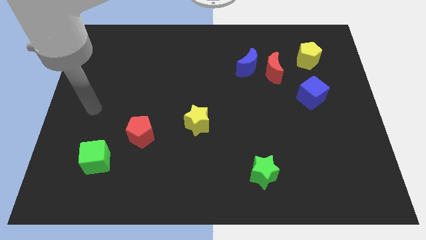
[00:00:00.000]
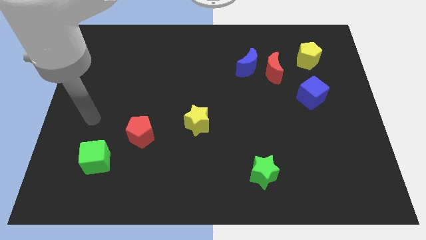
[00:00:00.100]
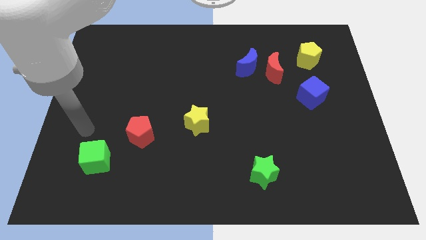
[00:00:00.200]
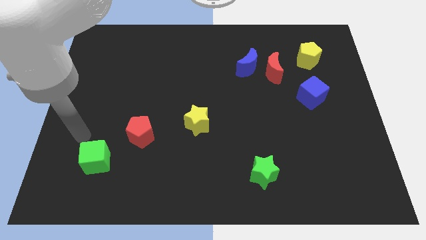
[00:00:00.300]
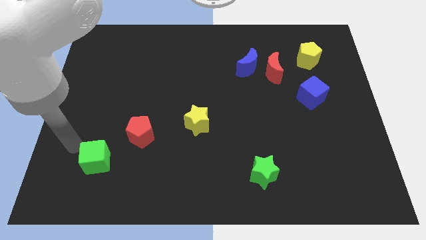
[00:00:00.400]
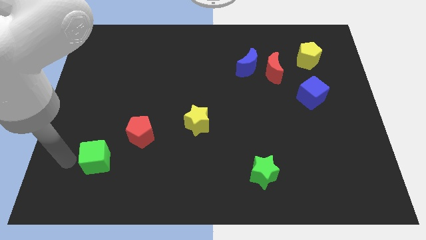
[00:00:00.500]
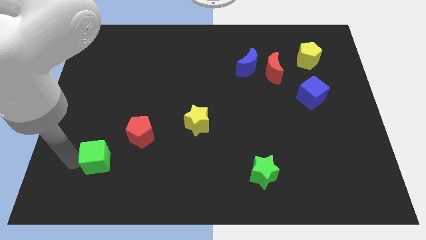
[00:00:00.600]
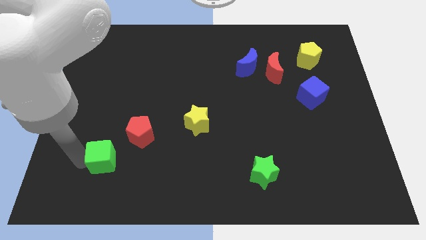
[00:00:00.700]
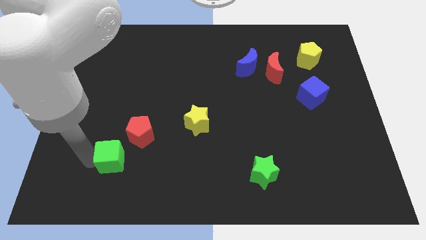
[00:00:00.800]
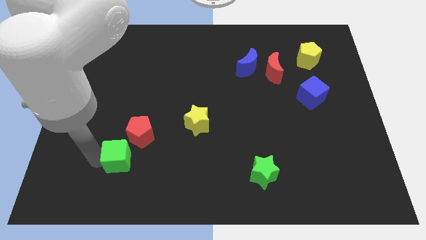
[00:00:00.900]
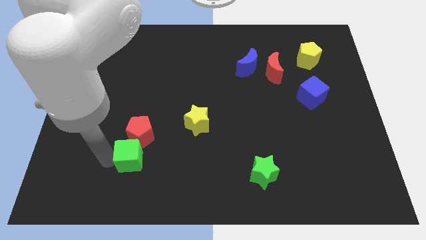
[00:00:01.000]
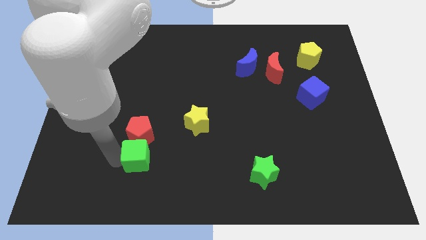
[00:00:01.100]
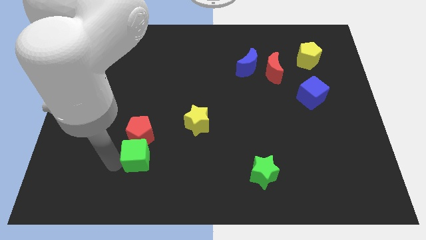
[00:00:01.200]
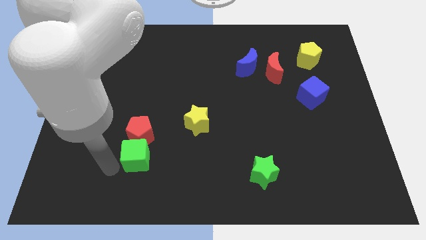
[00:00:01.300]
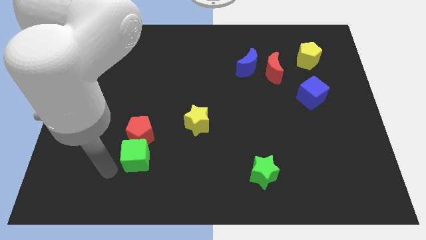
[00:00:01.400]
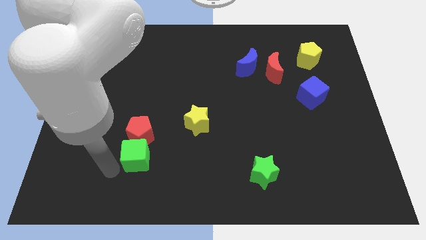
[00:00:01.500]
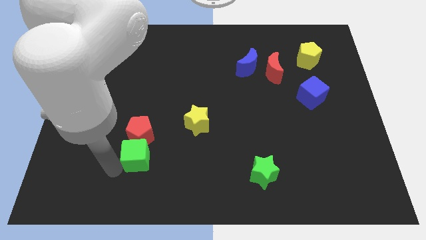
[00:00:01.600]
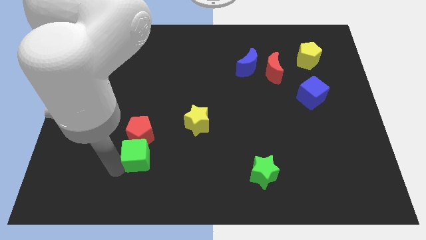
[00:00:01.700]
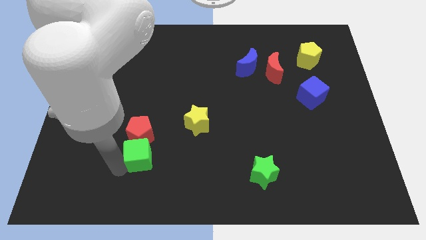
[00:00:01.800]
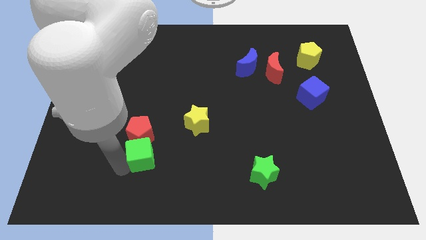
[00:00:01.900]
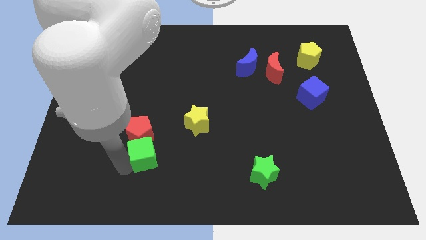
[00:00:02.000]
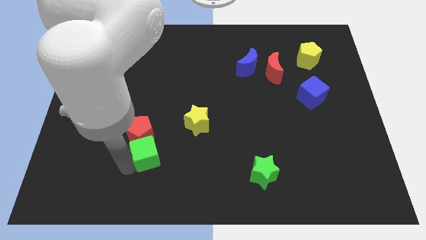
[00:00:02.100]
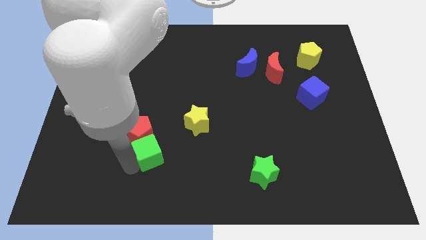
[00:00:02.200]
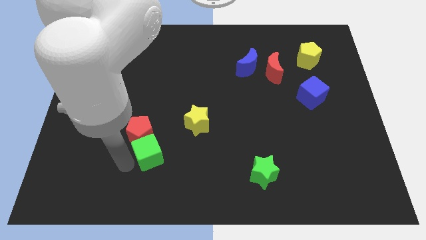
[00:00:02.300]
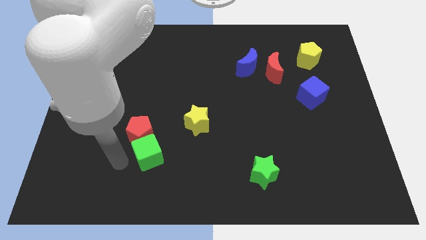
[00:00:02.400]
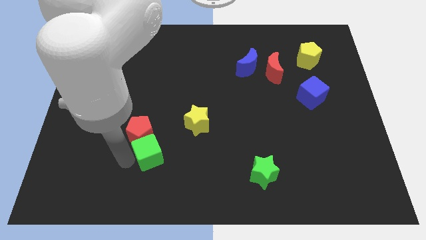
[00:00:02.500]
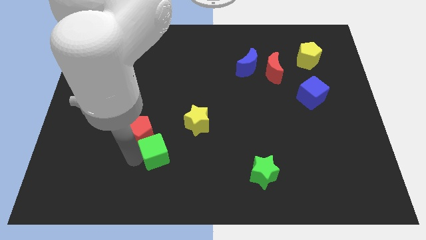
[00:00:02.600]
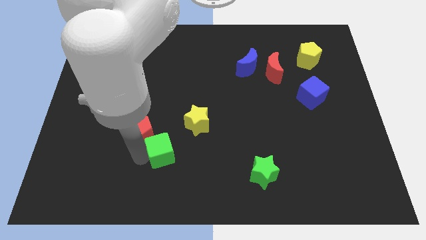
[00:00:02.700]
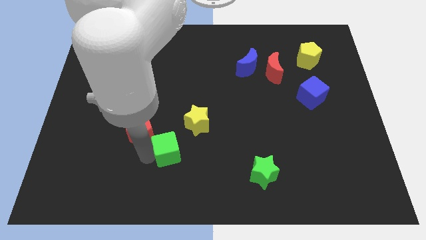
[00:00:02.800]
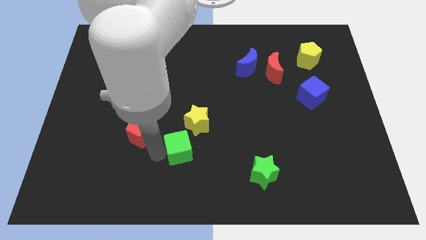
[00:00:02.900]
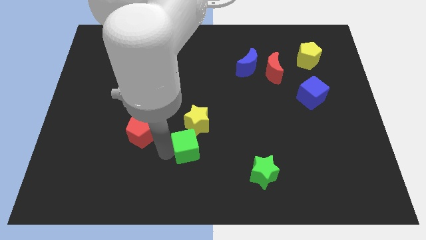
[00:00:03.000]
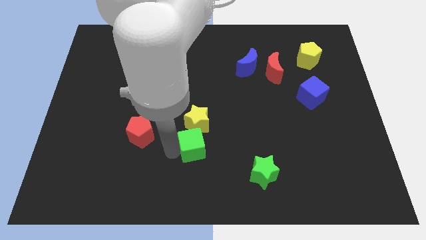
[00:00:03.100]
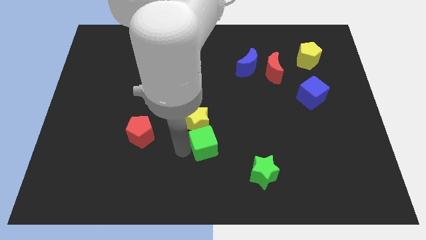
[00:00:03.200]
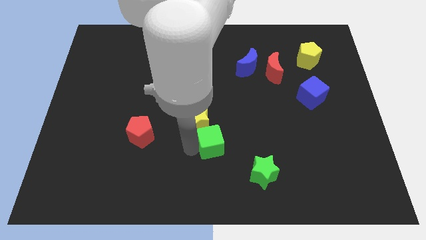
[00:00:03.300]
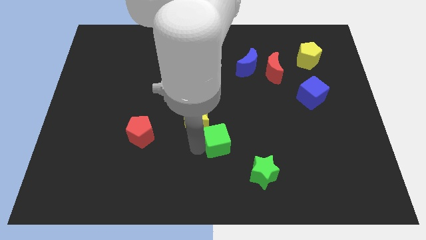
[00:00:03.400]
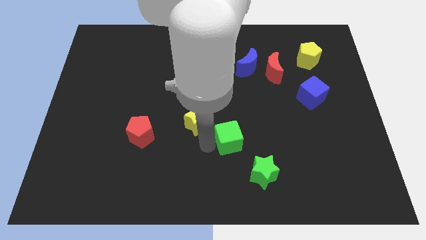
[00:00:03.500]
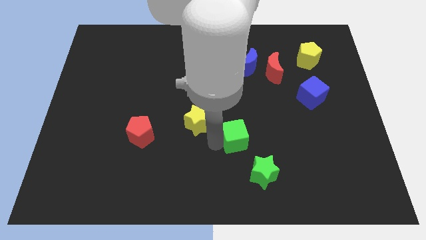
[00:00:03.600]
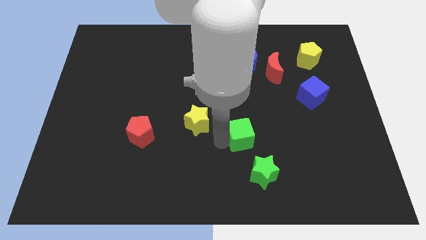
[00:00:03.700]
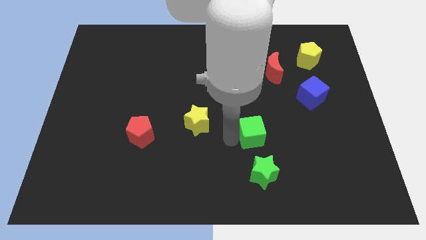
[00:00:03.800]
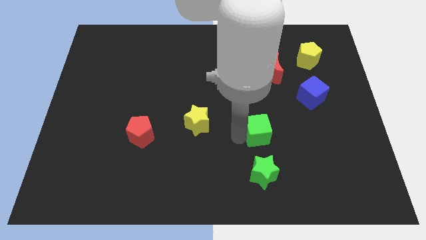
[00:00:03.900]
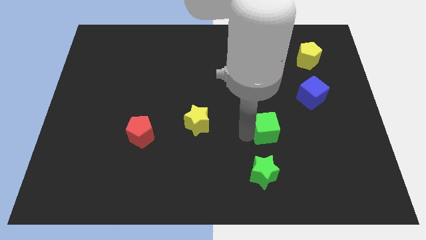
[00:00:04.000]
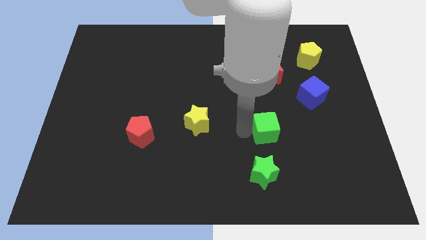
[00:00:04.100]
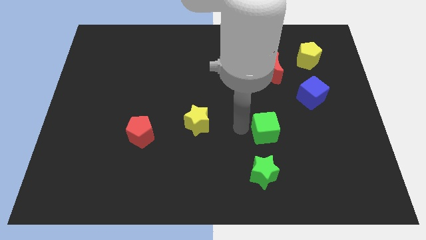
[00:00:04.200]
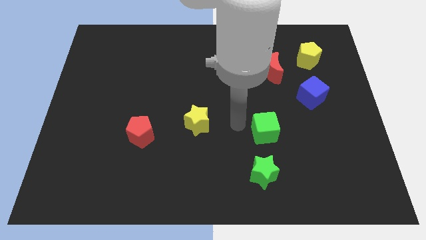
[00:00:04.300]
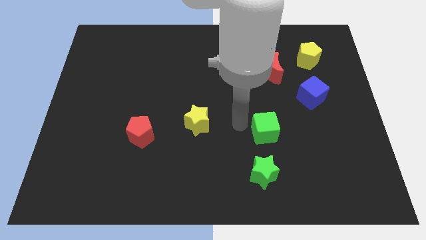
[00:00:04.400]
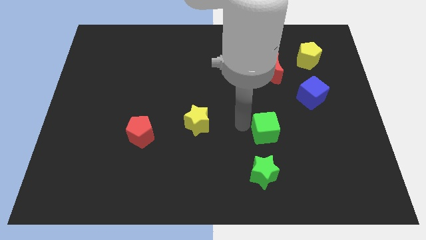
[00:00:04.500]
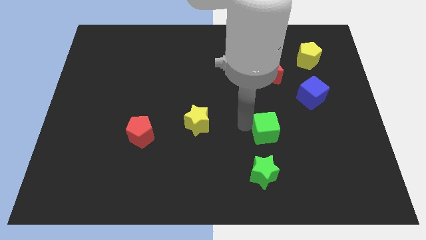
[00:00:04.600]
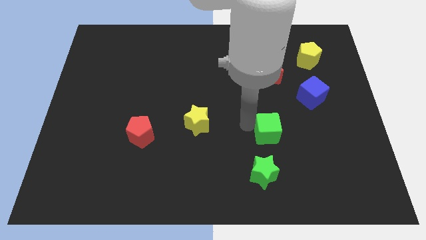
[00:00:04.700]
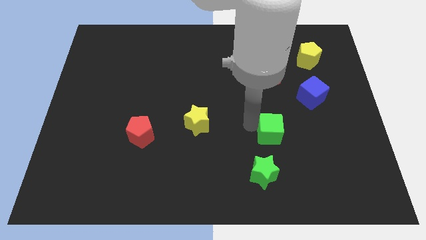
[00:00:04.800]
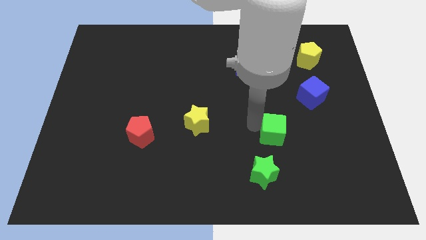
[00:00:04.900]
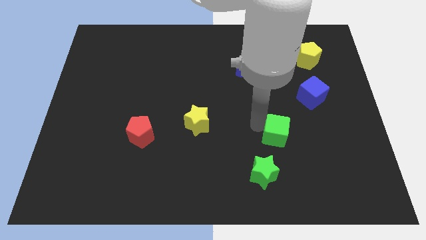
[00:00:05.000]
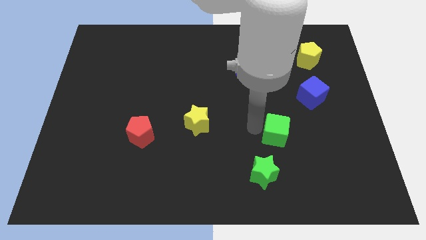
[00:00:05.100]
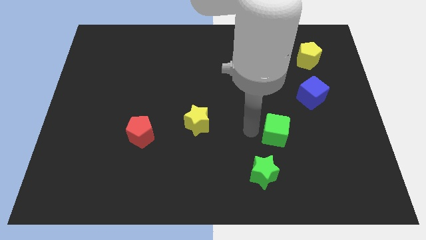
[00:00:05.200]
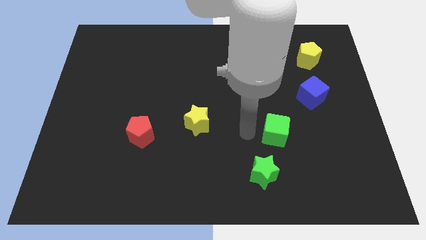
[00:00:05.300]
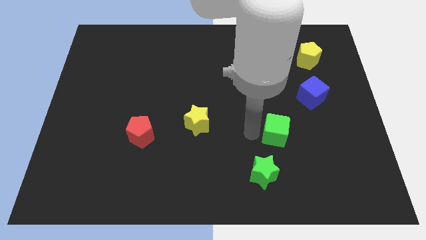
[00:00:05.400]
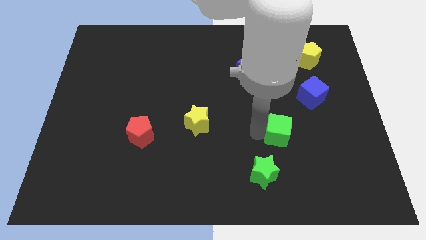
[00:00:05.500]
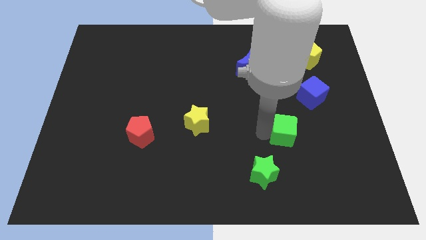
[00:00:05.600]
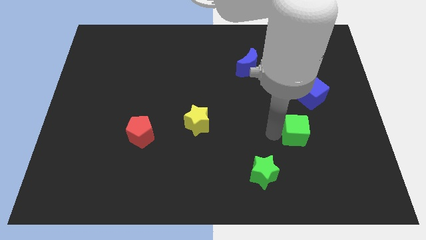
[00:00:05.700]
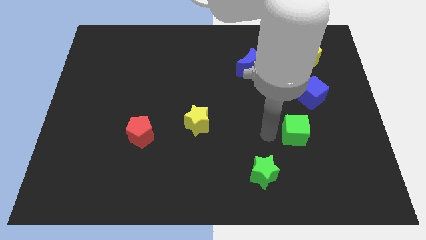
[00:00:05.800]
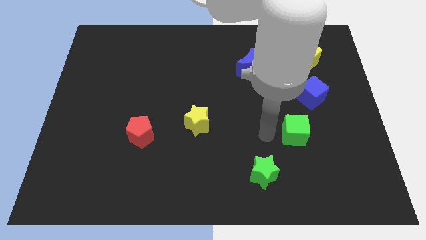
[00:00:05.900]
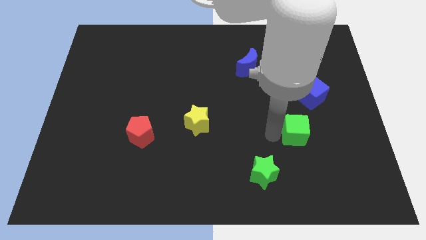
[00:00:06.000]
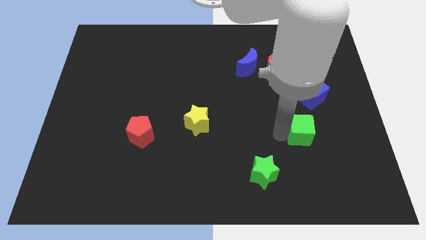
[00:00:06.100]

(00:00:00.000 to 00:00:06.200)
push the green cube to the bottom side of the blue cube
